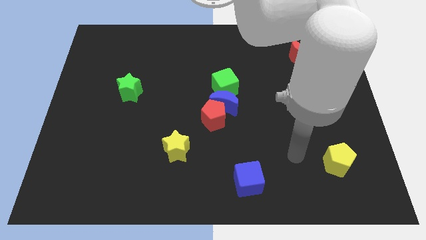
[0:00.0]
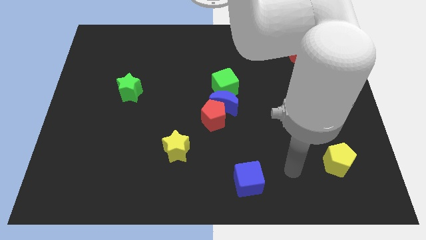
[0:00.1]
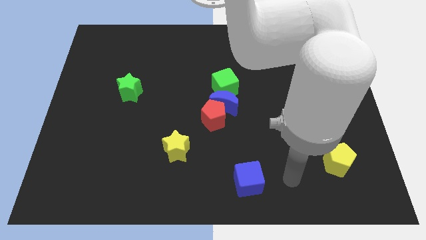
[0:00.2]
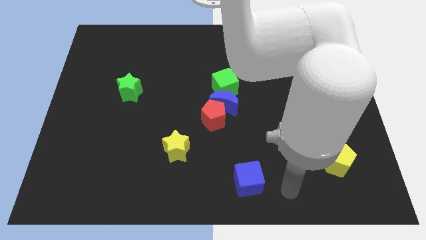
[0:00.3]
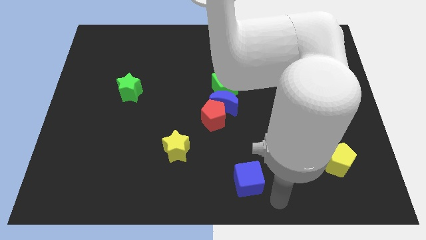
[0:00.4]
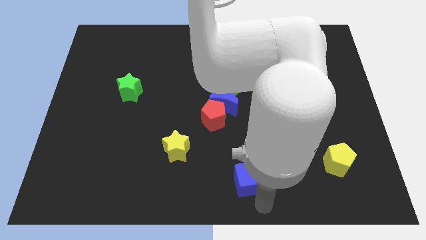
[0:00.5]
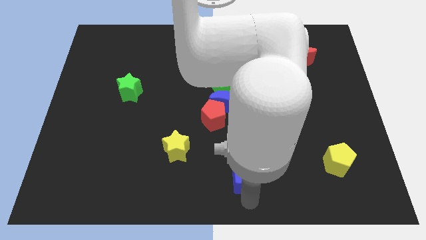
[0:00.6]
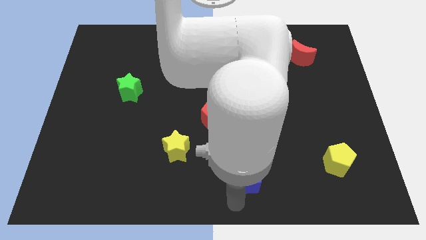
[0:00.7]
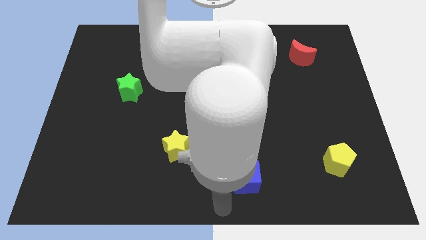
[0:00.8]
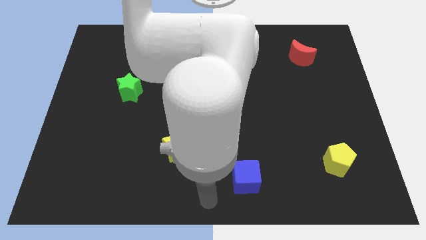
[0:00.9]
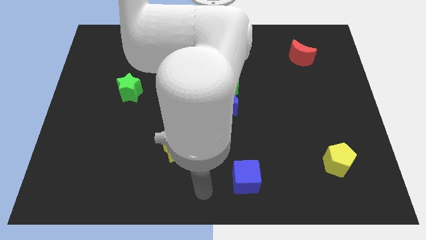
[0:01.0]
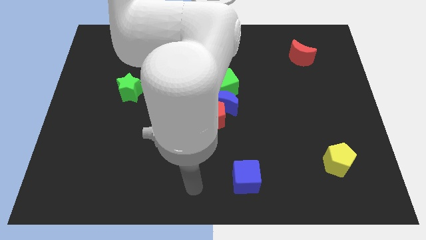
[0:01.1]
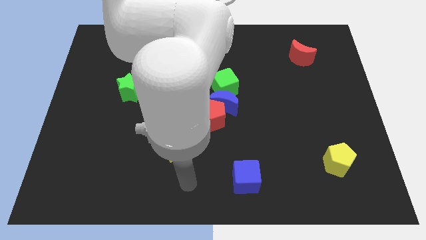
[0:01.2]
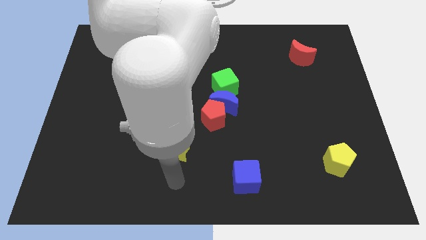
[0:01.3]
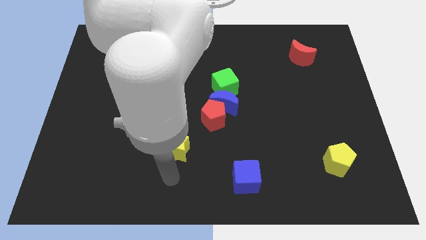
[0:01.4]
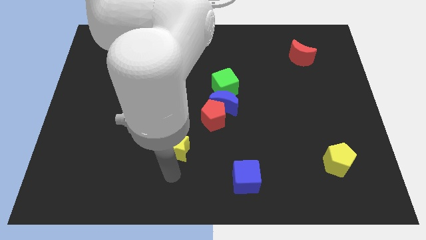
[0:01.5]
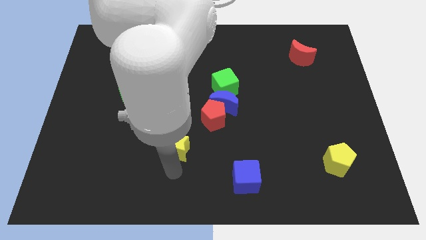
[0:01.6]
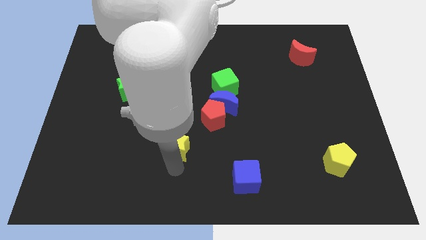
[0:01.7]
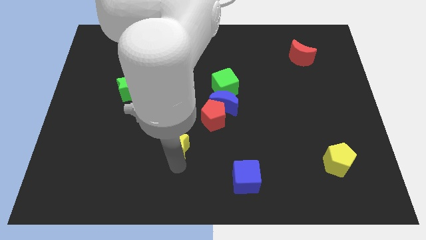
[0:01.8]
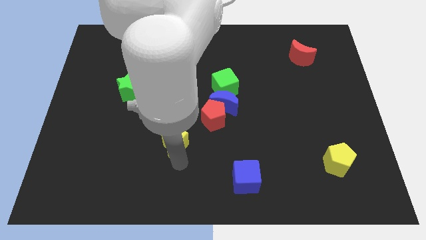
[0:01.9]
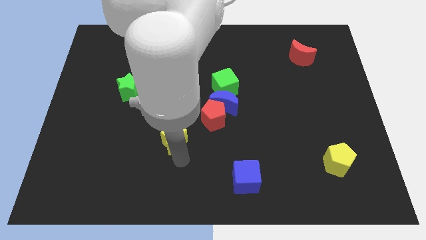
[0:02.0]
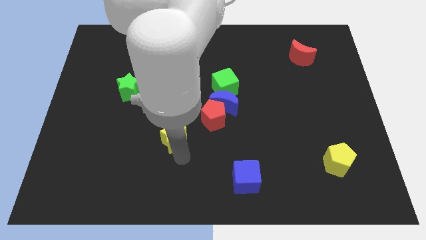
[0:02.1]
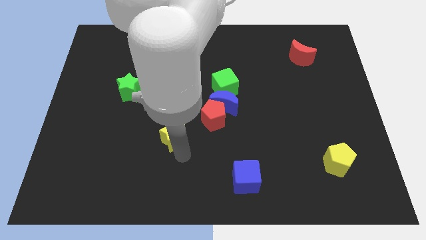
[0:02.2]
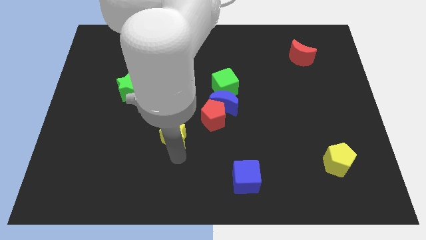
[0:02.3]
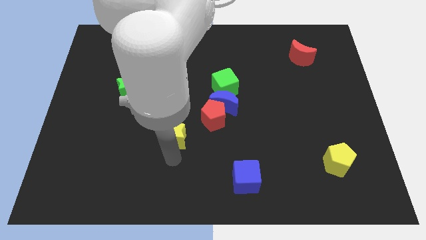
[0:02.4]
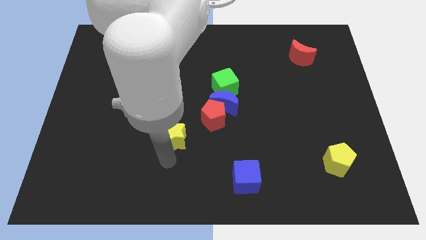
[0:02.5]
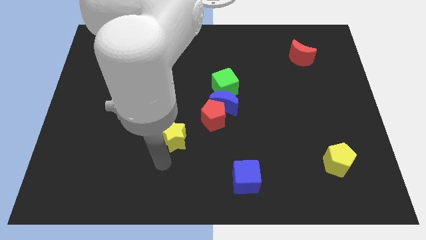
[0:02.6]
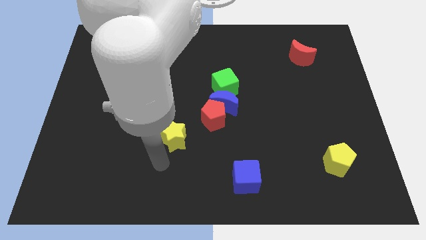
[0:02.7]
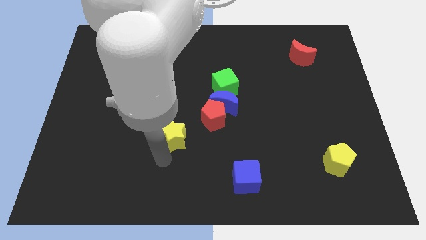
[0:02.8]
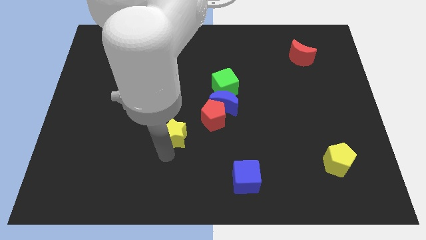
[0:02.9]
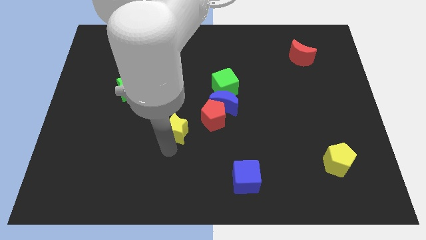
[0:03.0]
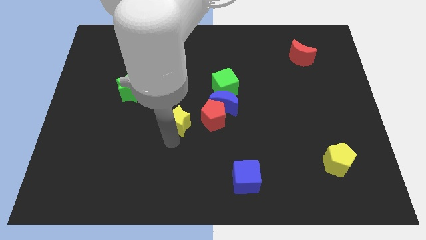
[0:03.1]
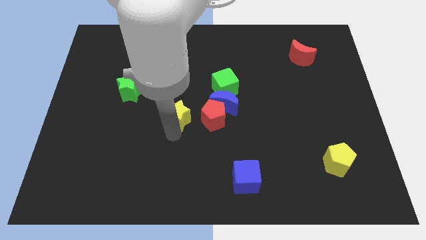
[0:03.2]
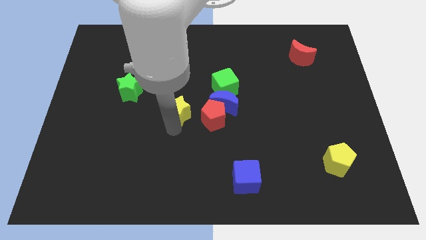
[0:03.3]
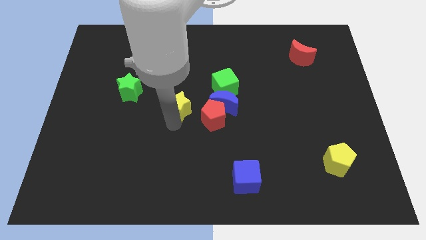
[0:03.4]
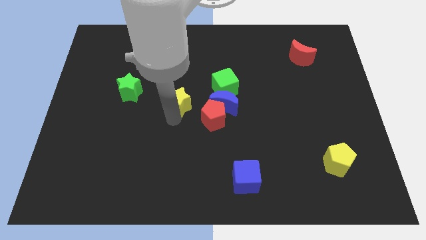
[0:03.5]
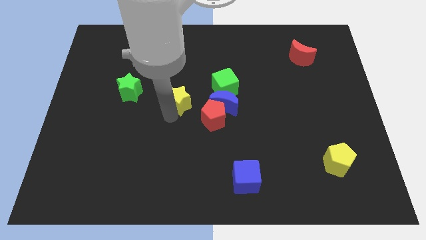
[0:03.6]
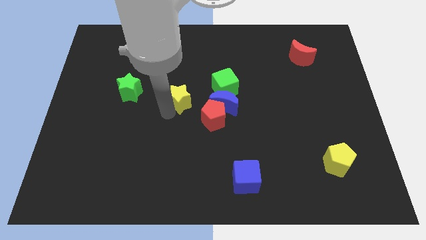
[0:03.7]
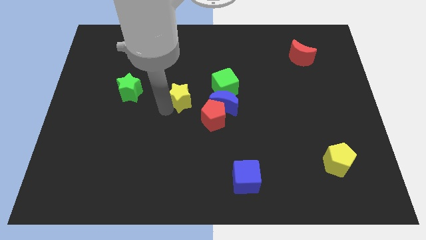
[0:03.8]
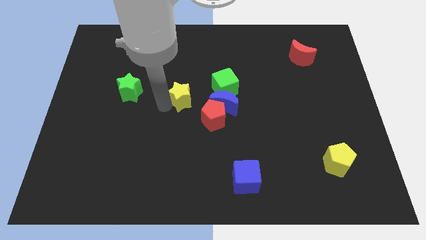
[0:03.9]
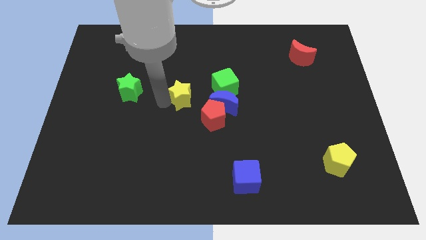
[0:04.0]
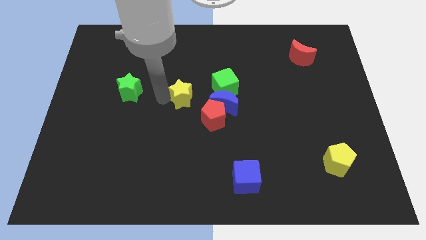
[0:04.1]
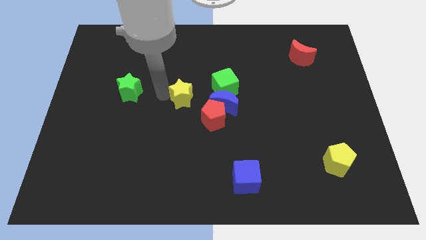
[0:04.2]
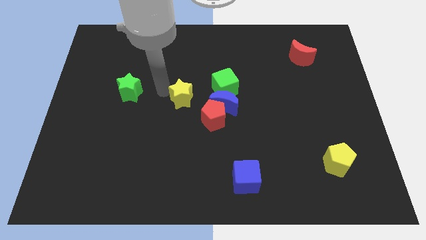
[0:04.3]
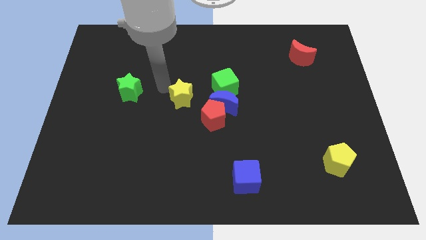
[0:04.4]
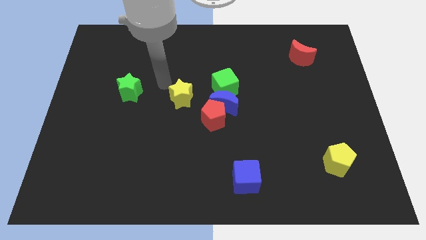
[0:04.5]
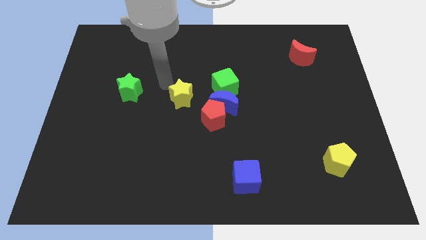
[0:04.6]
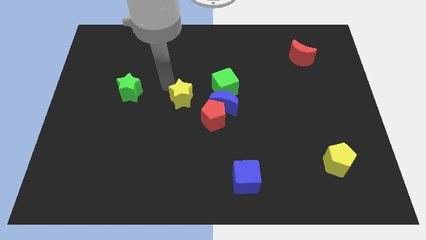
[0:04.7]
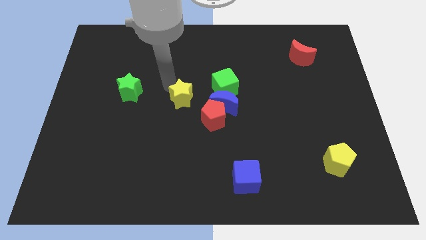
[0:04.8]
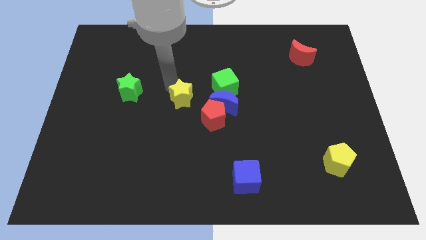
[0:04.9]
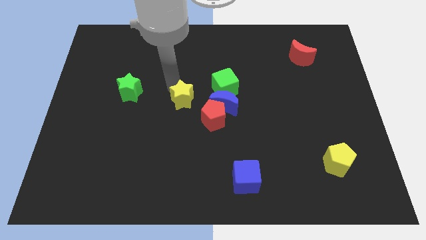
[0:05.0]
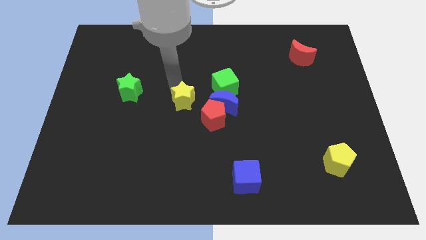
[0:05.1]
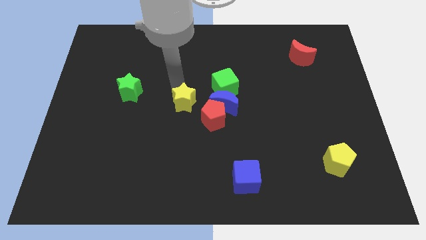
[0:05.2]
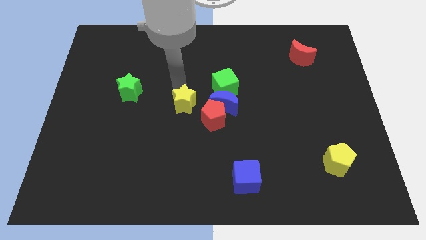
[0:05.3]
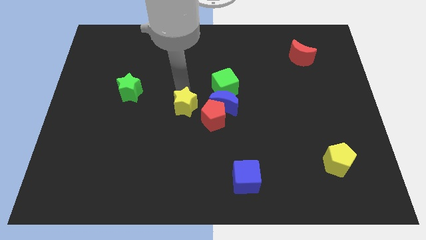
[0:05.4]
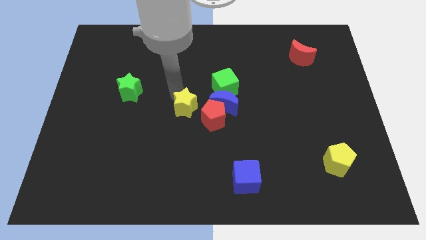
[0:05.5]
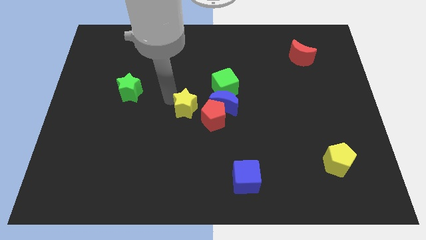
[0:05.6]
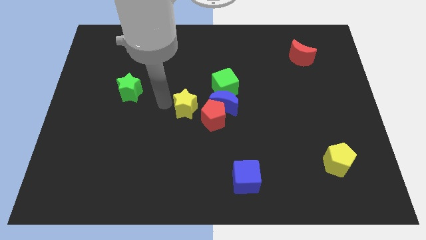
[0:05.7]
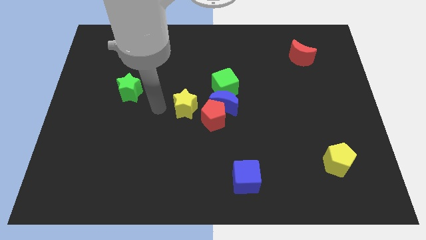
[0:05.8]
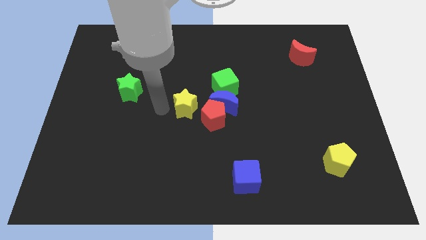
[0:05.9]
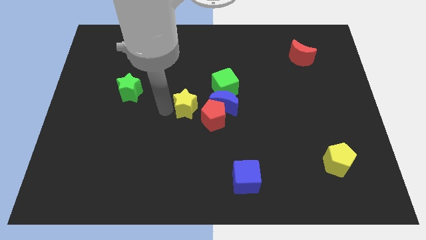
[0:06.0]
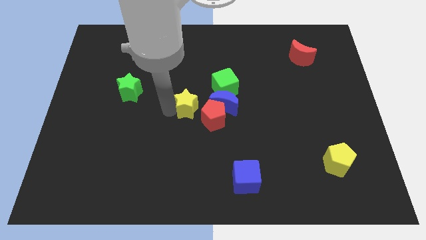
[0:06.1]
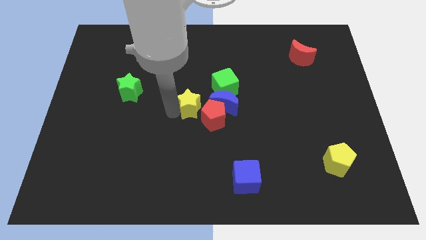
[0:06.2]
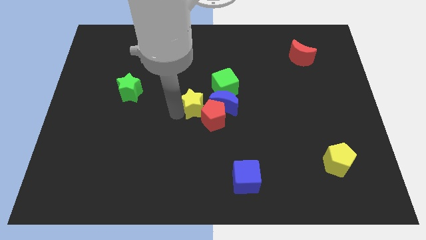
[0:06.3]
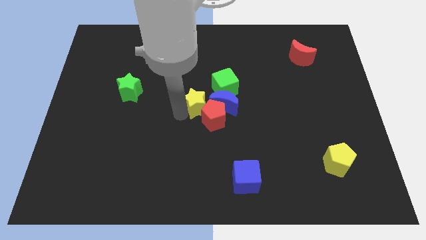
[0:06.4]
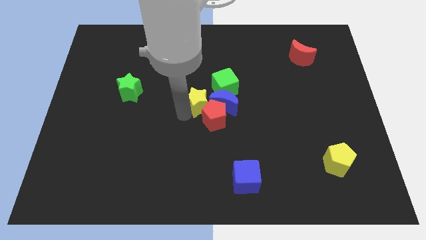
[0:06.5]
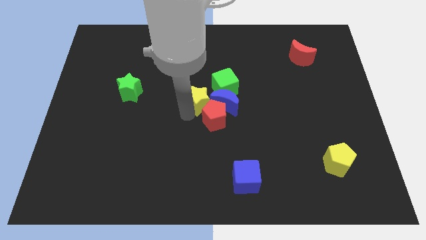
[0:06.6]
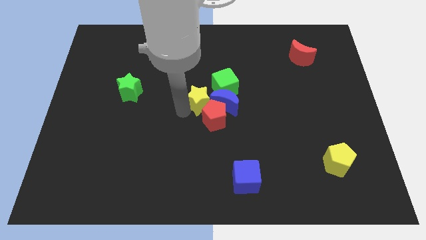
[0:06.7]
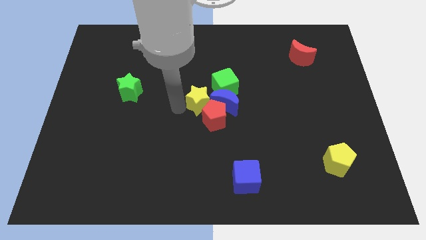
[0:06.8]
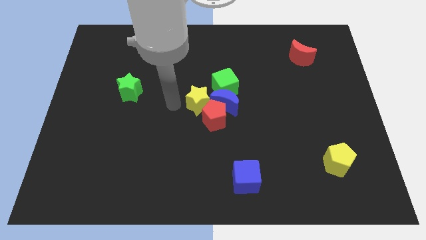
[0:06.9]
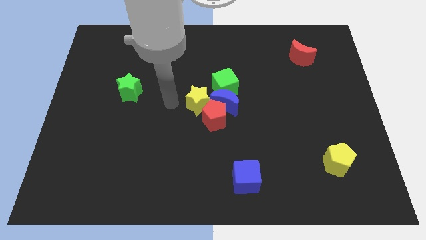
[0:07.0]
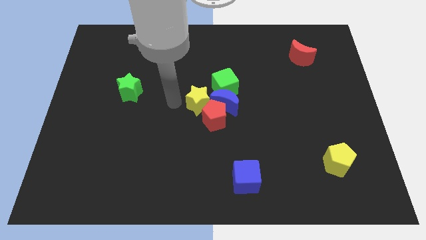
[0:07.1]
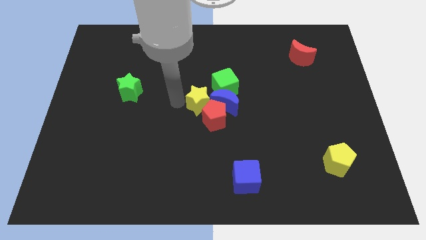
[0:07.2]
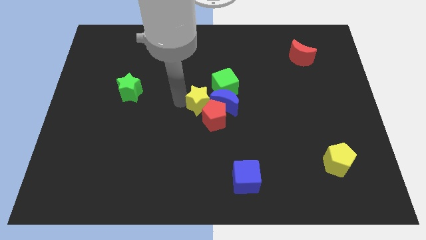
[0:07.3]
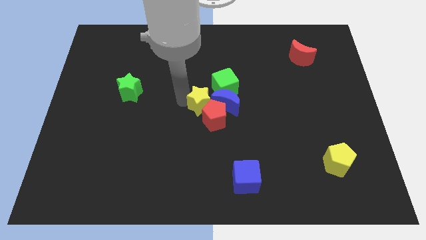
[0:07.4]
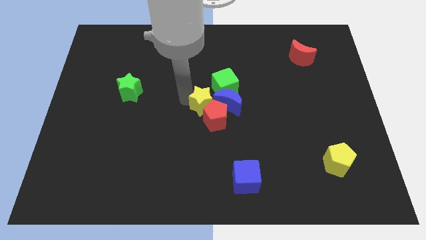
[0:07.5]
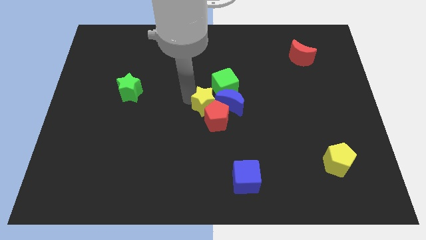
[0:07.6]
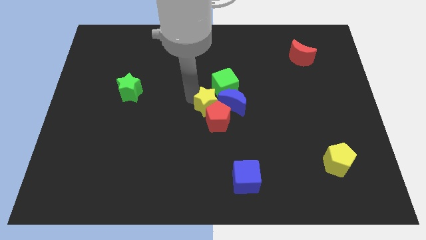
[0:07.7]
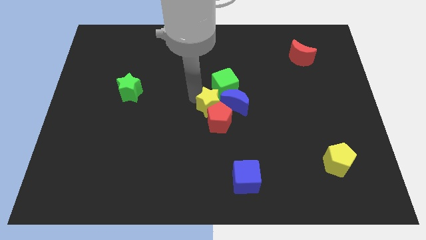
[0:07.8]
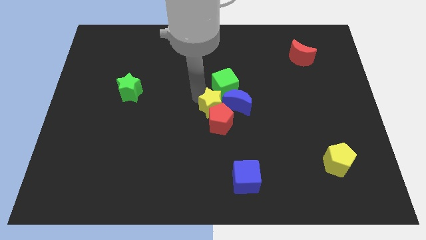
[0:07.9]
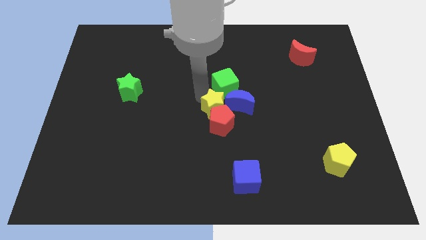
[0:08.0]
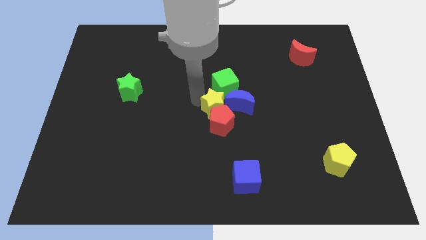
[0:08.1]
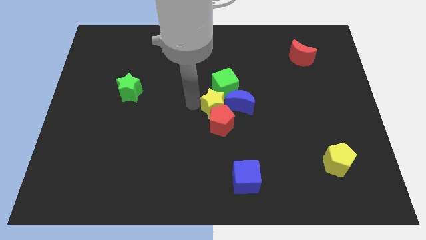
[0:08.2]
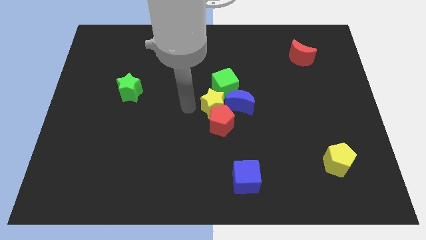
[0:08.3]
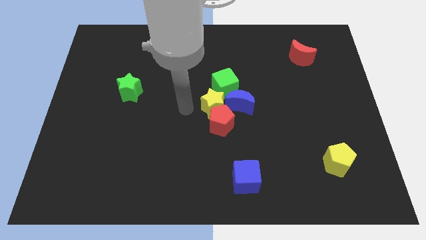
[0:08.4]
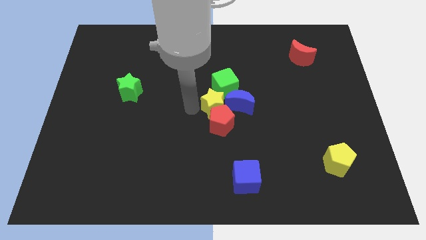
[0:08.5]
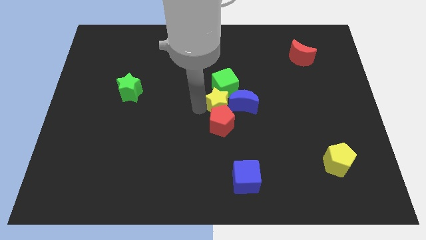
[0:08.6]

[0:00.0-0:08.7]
move the yellow star close to the blue moon
